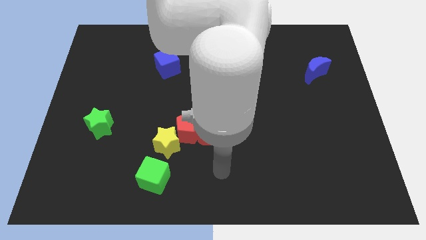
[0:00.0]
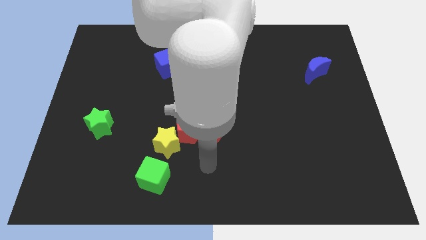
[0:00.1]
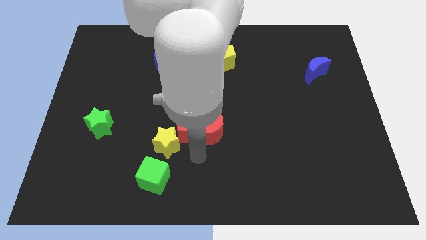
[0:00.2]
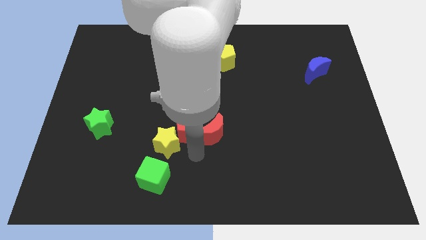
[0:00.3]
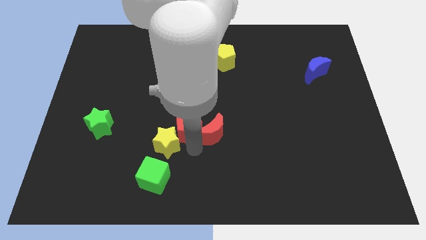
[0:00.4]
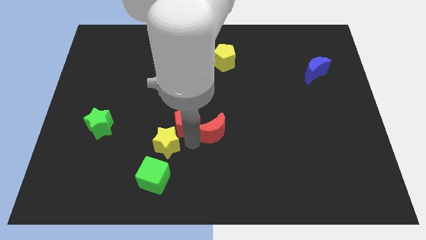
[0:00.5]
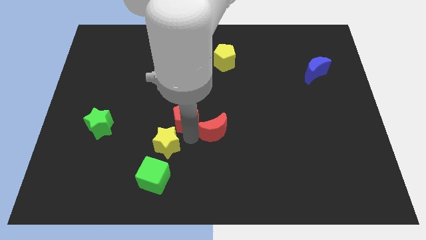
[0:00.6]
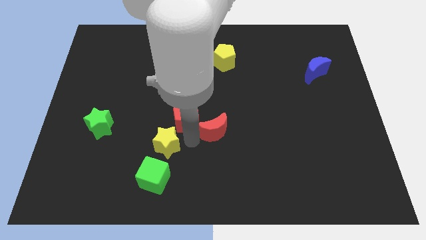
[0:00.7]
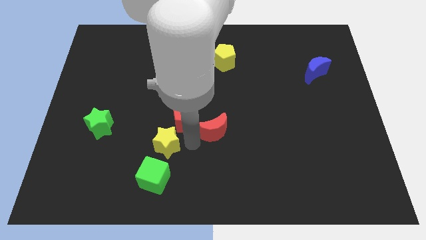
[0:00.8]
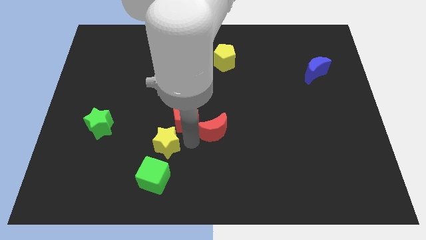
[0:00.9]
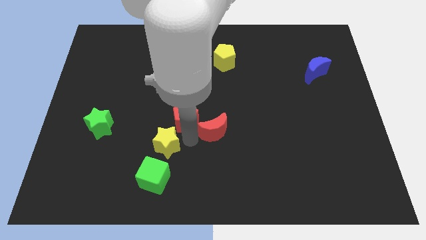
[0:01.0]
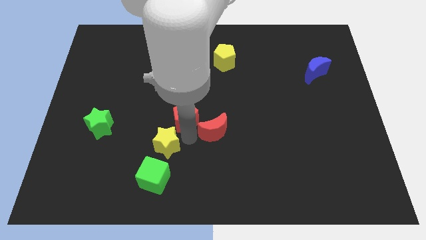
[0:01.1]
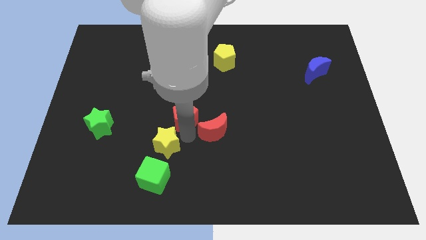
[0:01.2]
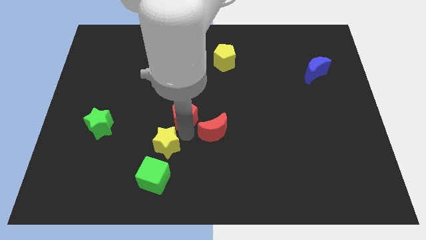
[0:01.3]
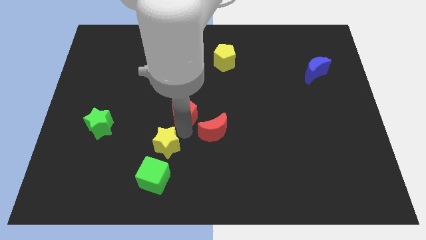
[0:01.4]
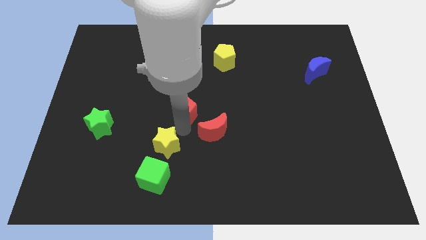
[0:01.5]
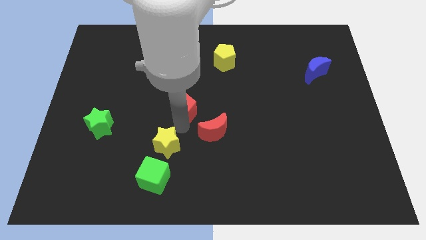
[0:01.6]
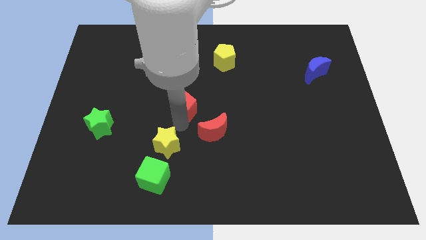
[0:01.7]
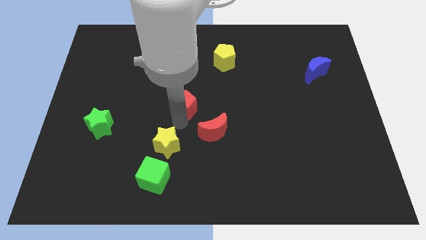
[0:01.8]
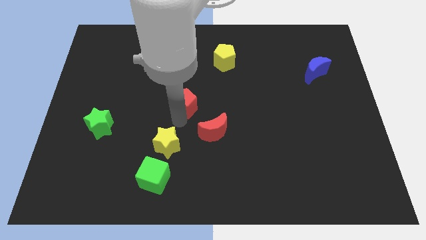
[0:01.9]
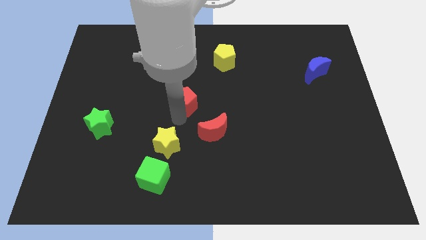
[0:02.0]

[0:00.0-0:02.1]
separate the red pentagon from the yellow star and red moon

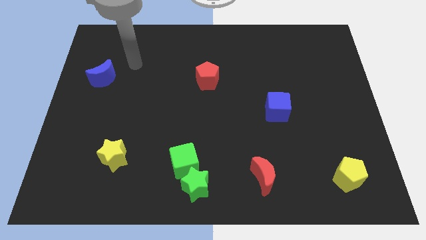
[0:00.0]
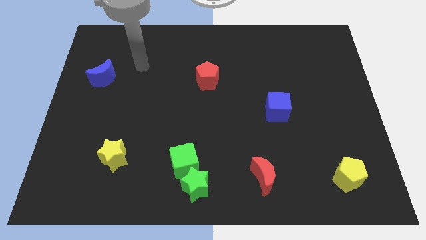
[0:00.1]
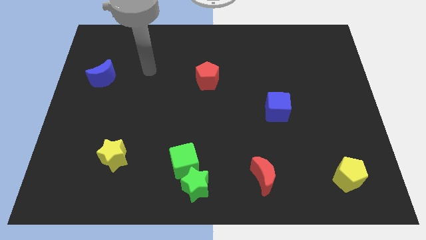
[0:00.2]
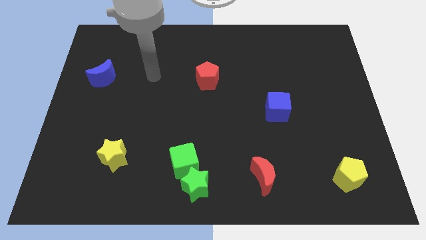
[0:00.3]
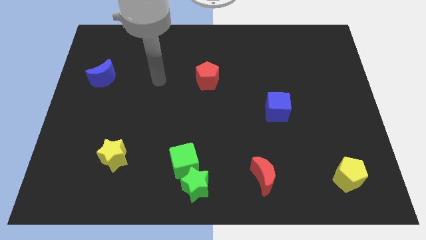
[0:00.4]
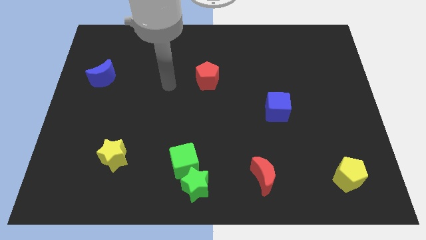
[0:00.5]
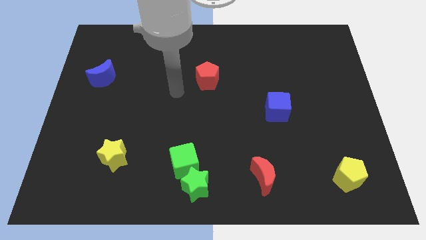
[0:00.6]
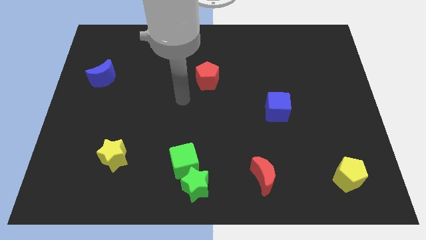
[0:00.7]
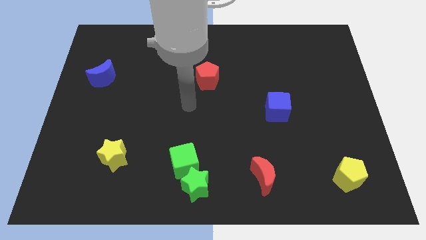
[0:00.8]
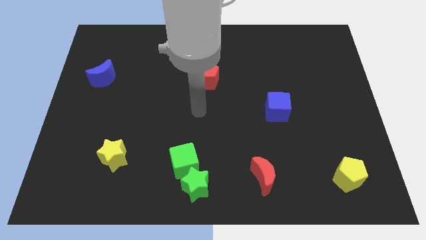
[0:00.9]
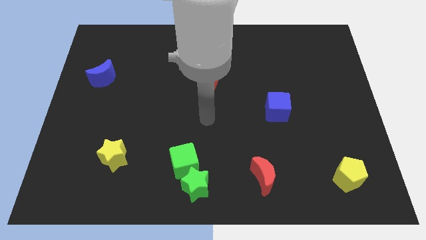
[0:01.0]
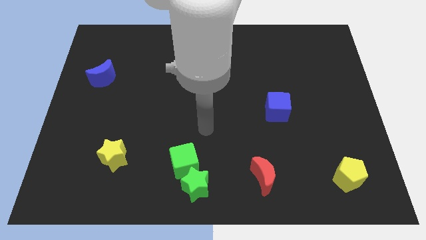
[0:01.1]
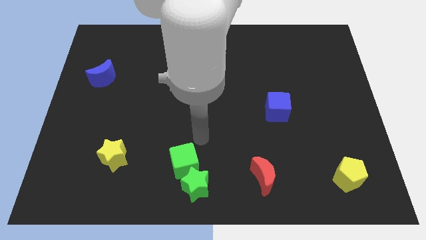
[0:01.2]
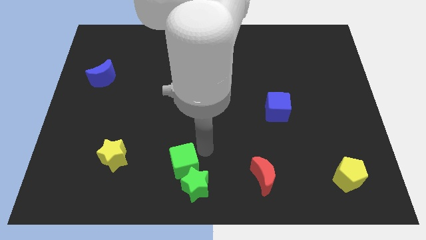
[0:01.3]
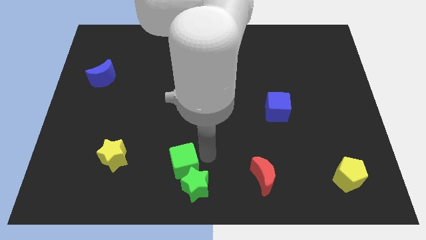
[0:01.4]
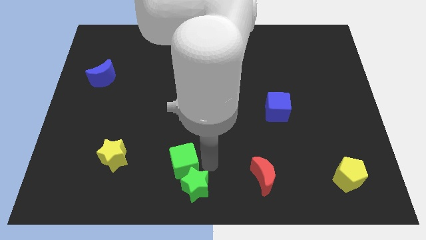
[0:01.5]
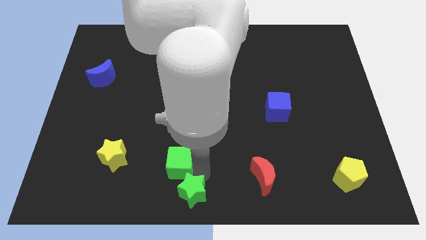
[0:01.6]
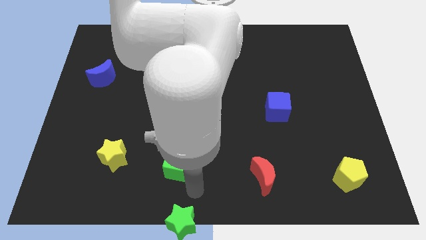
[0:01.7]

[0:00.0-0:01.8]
separate the green cube from the green star

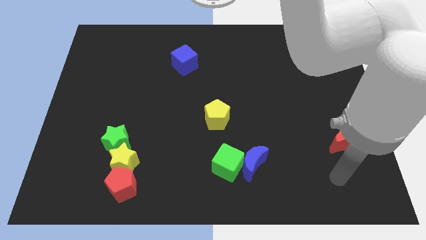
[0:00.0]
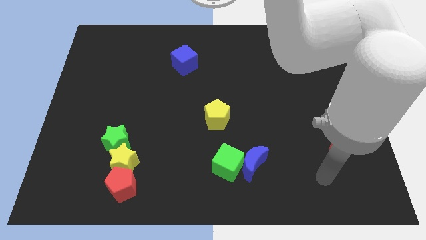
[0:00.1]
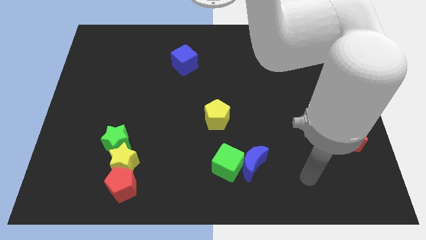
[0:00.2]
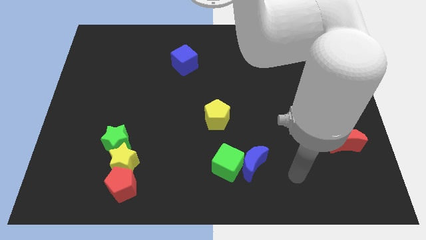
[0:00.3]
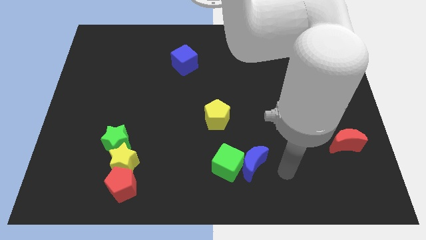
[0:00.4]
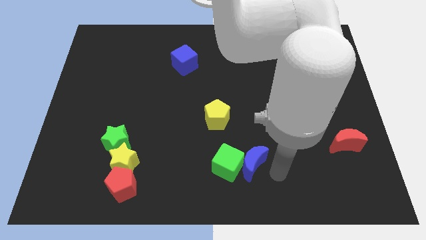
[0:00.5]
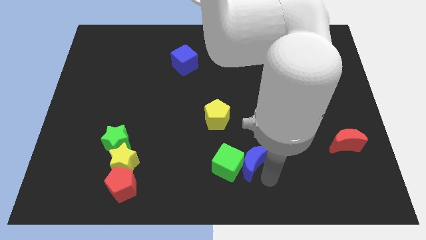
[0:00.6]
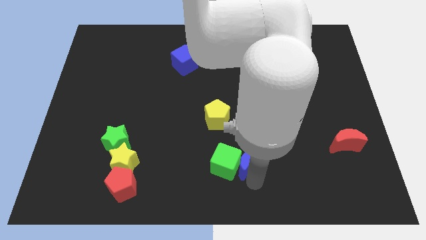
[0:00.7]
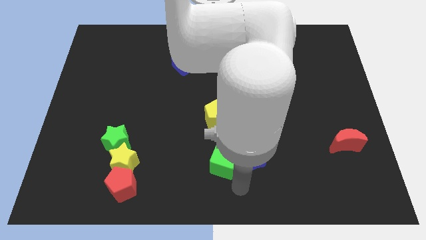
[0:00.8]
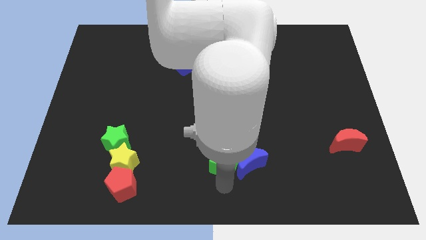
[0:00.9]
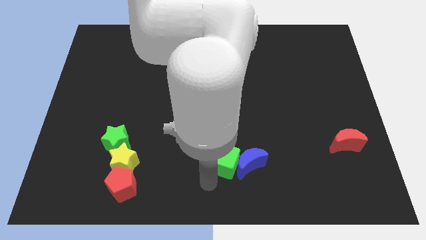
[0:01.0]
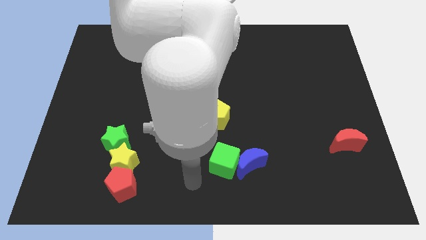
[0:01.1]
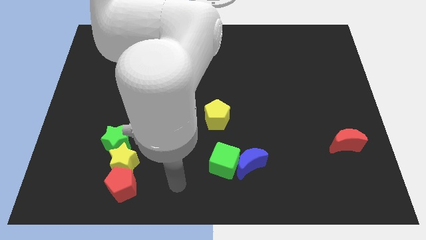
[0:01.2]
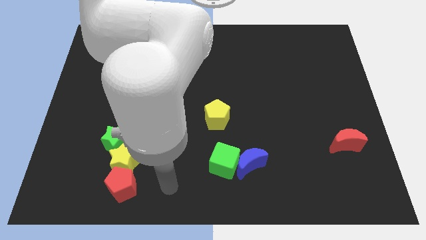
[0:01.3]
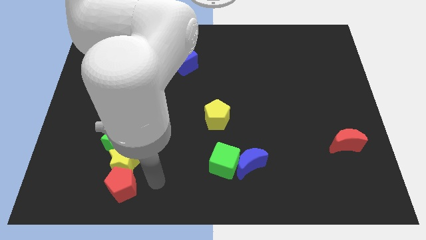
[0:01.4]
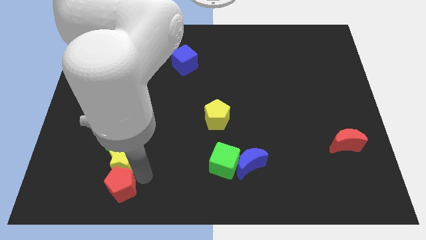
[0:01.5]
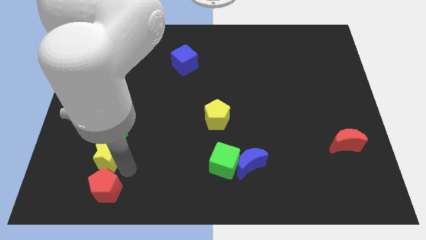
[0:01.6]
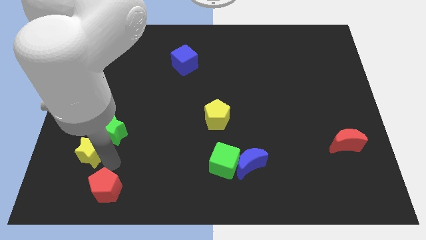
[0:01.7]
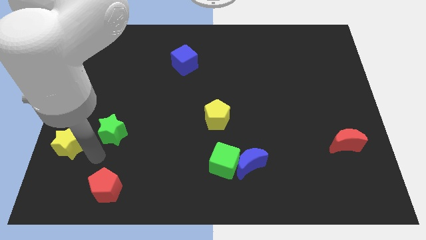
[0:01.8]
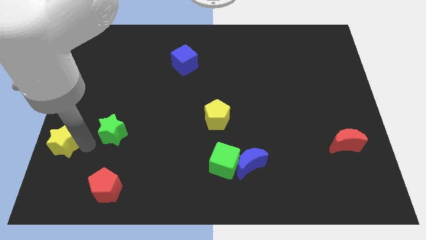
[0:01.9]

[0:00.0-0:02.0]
pull the green star apart from the yellow star

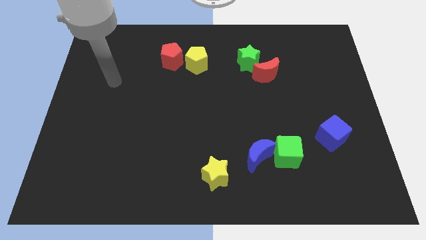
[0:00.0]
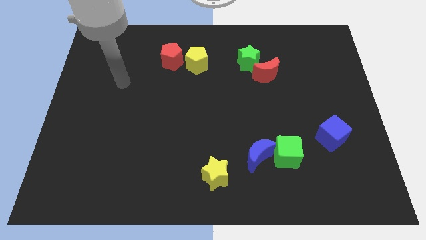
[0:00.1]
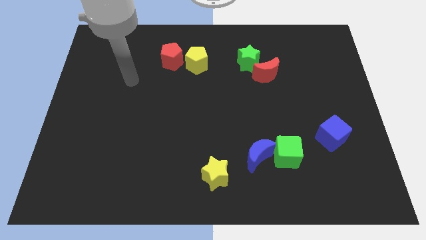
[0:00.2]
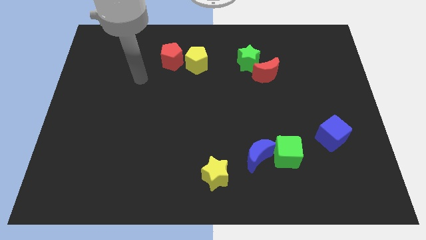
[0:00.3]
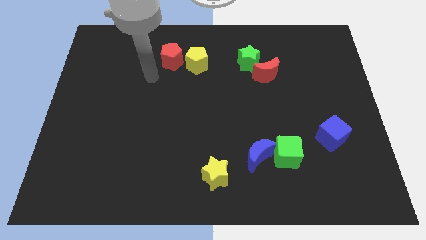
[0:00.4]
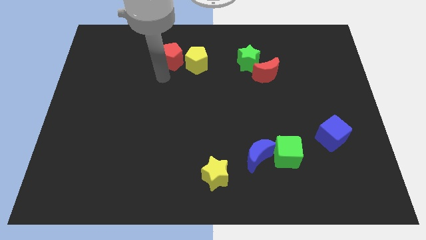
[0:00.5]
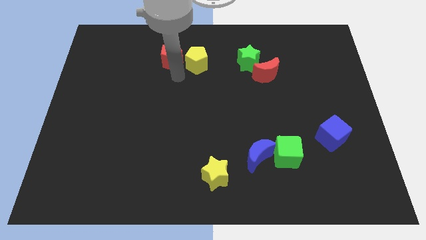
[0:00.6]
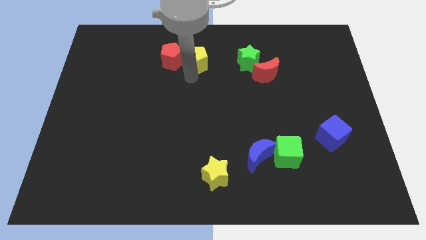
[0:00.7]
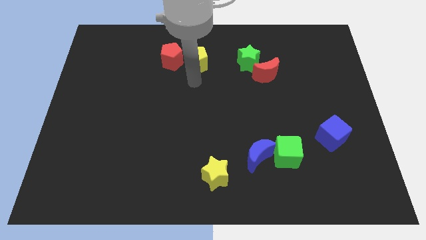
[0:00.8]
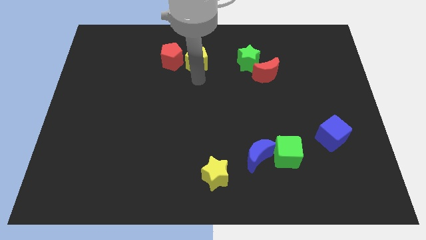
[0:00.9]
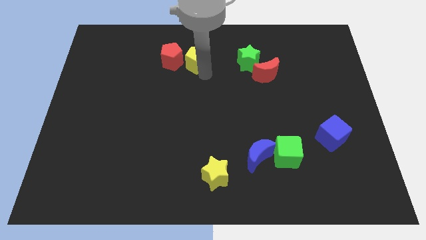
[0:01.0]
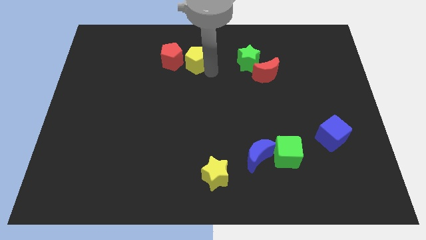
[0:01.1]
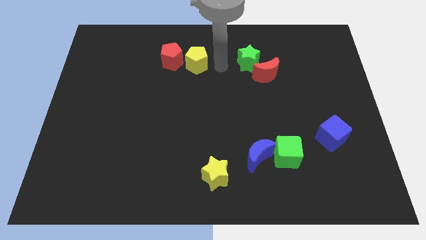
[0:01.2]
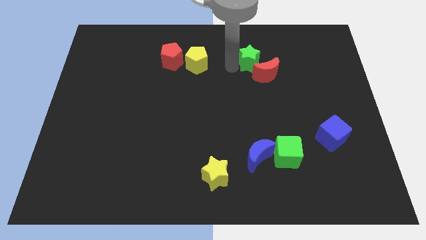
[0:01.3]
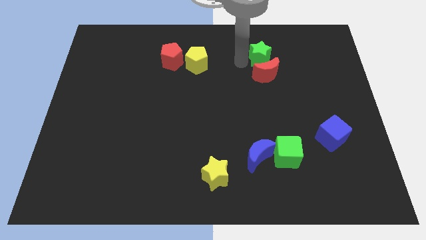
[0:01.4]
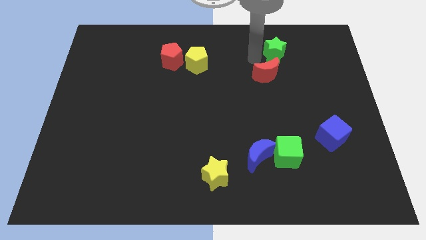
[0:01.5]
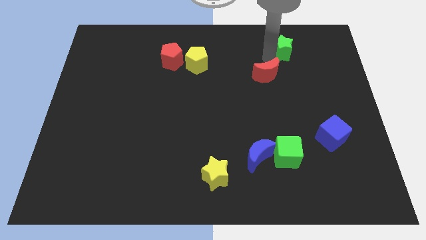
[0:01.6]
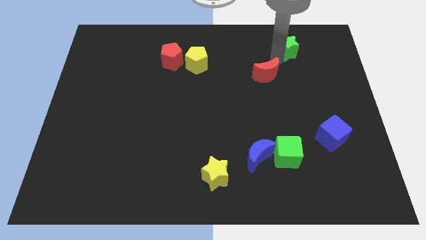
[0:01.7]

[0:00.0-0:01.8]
move the red moon away from the green star

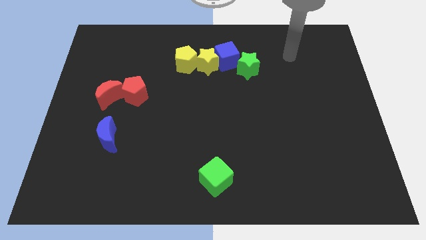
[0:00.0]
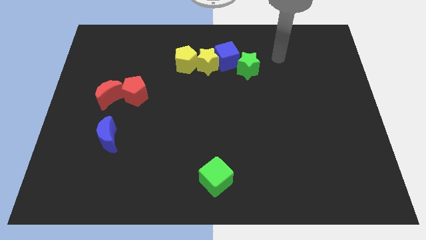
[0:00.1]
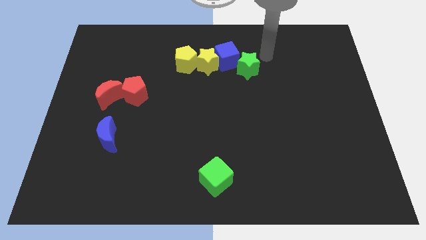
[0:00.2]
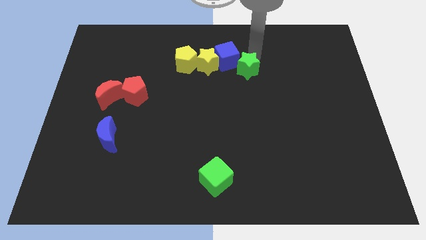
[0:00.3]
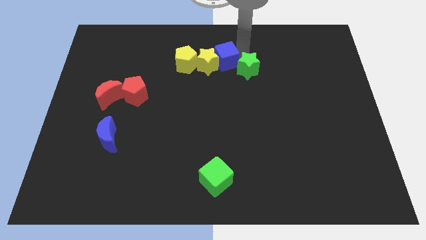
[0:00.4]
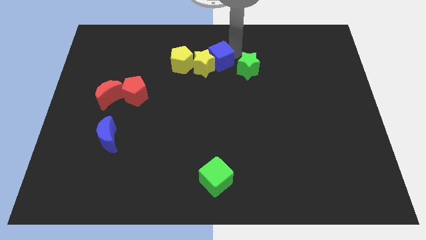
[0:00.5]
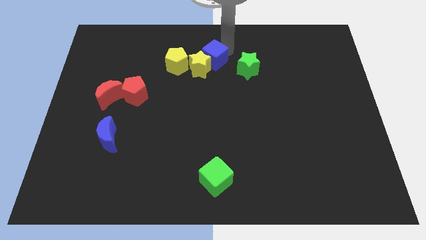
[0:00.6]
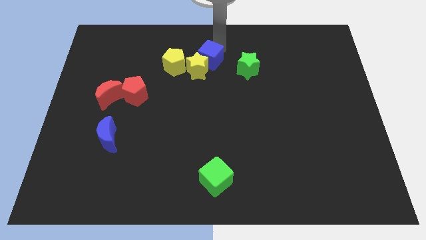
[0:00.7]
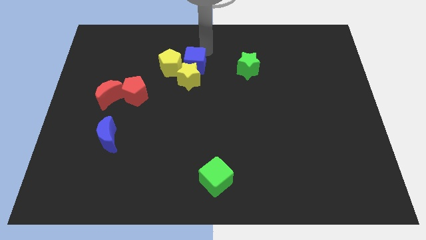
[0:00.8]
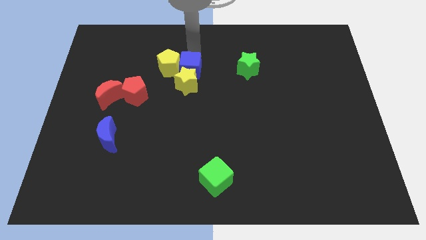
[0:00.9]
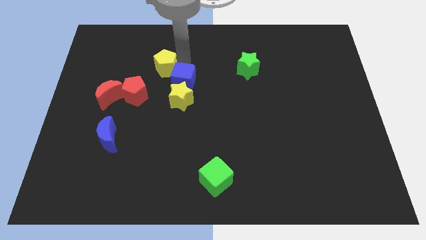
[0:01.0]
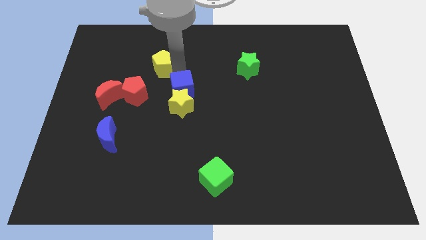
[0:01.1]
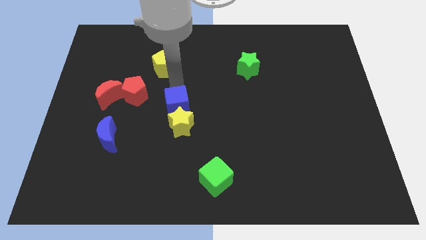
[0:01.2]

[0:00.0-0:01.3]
move the yellow star away from the blue cube and yellow pentagon

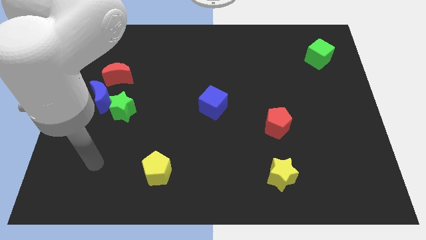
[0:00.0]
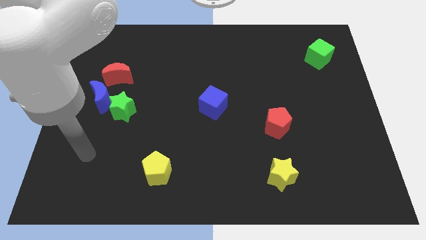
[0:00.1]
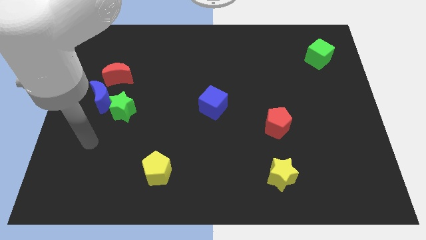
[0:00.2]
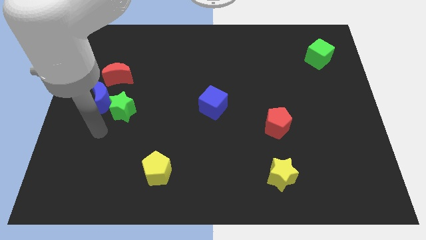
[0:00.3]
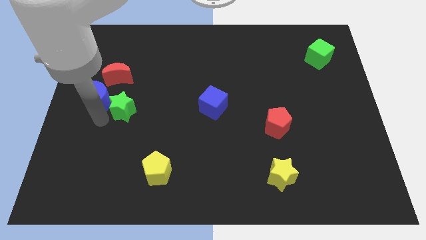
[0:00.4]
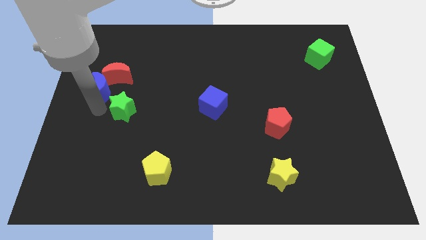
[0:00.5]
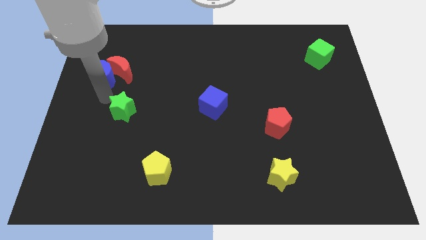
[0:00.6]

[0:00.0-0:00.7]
separate the green star from the blue moon
